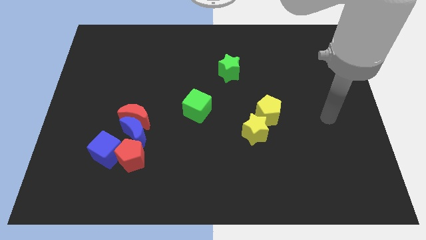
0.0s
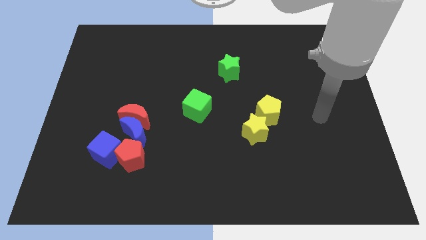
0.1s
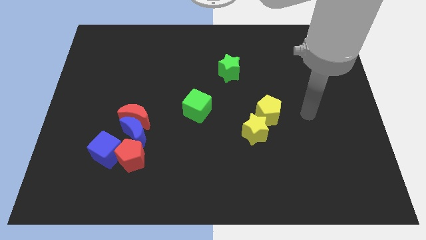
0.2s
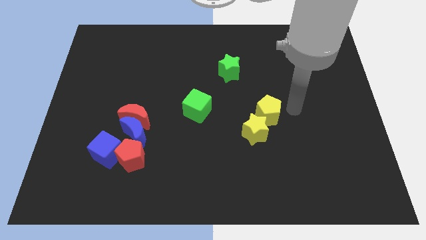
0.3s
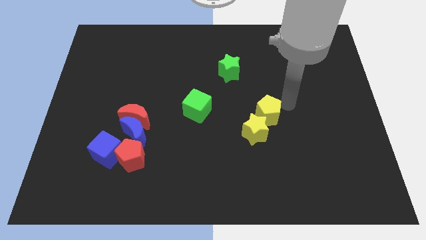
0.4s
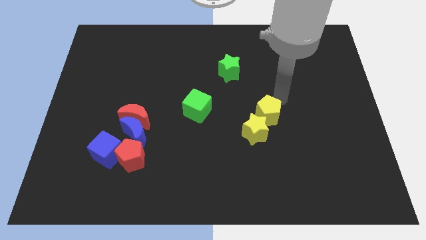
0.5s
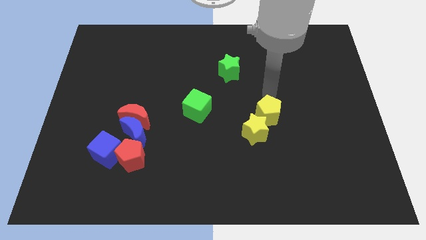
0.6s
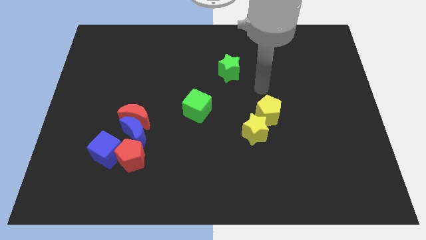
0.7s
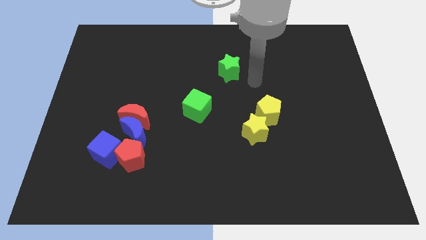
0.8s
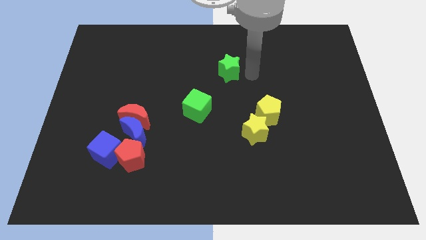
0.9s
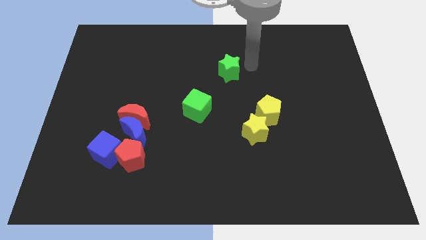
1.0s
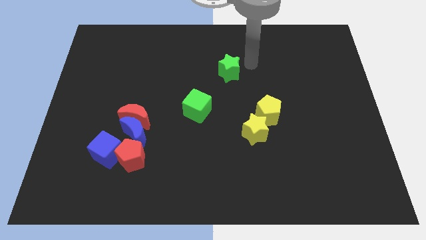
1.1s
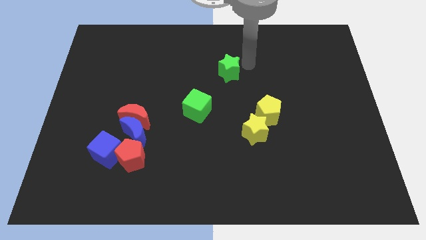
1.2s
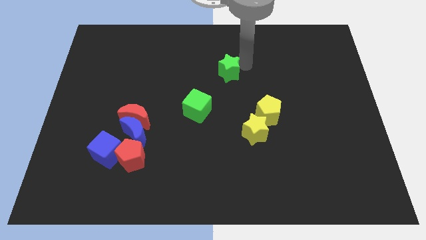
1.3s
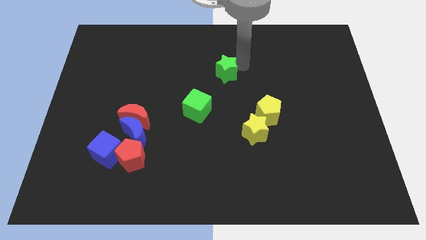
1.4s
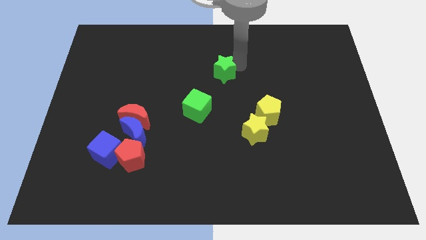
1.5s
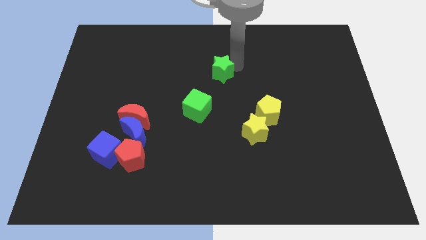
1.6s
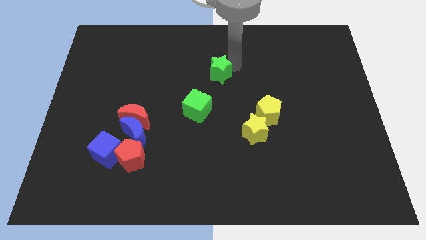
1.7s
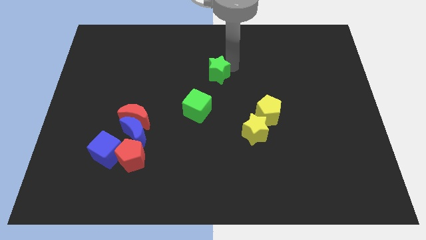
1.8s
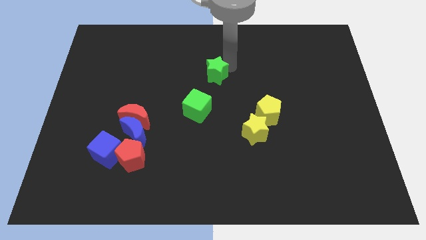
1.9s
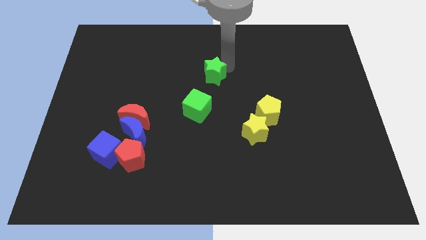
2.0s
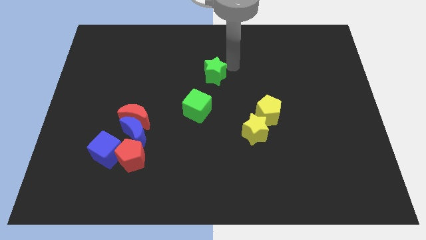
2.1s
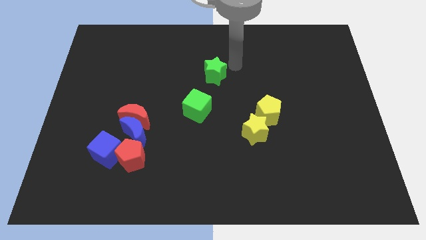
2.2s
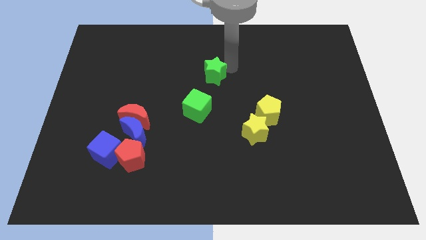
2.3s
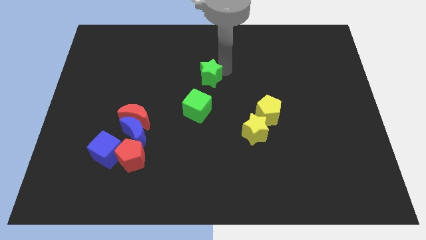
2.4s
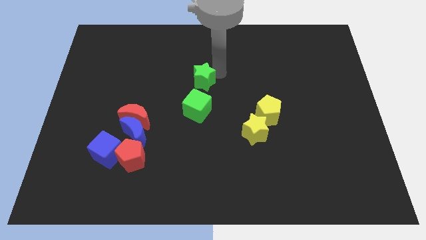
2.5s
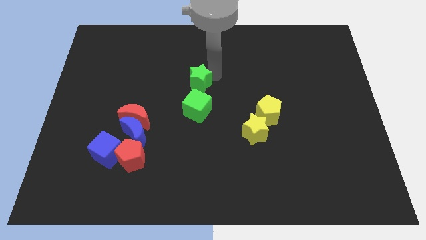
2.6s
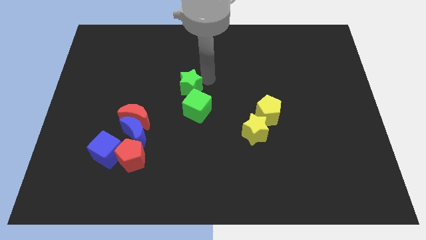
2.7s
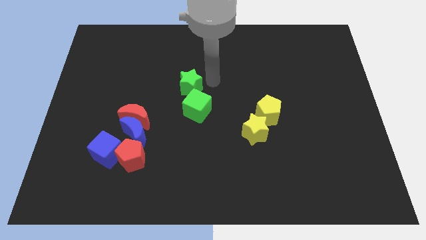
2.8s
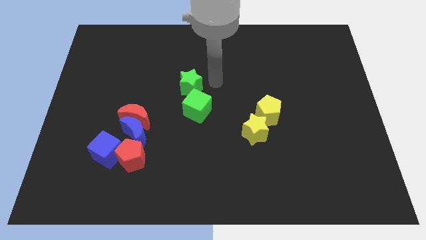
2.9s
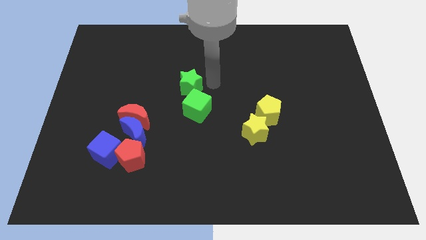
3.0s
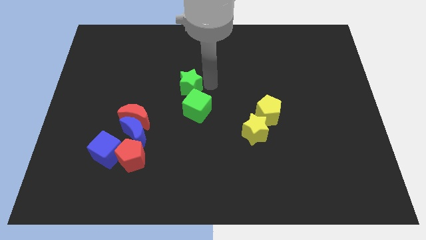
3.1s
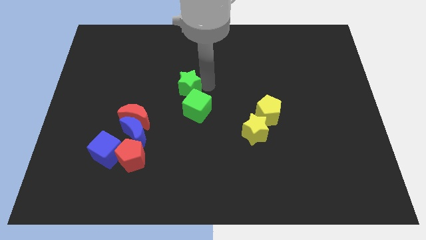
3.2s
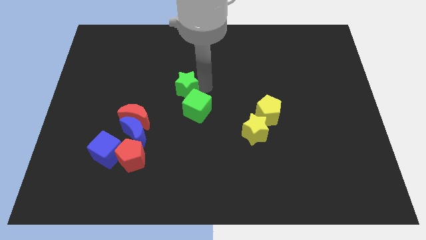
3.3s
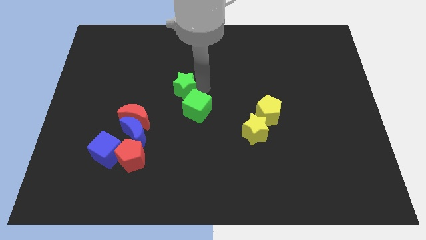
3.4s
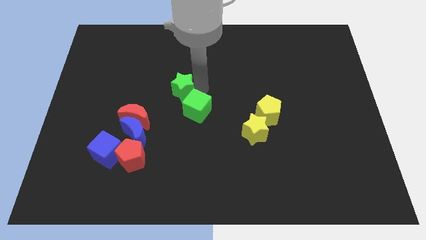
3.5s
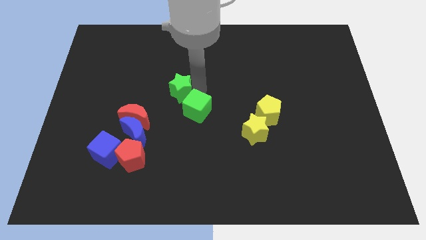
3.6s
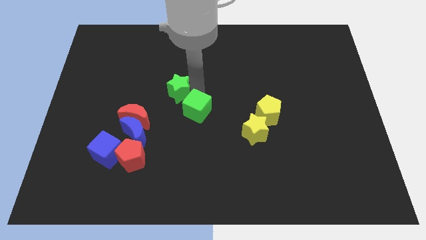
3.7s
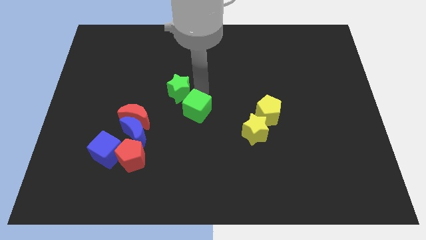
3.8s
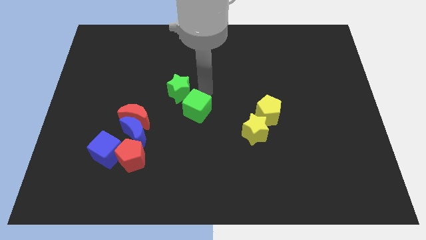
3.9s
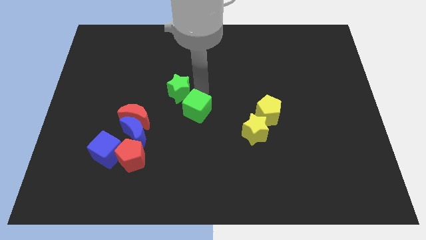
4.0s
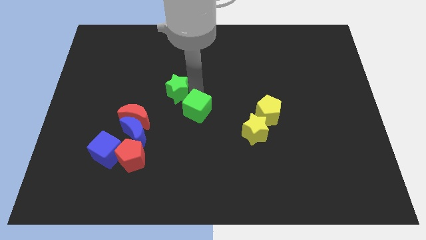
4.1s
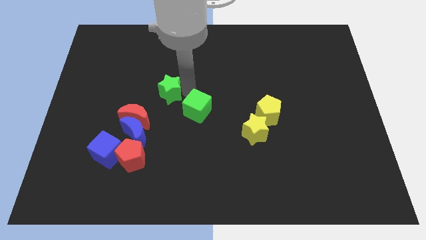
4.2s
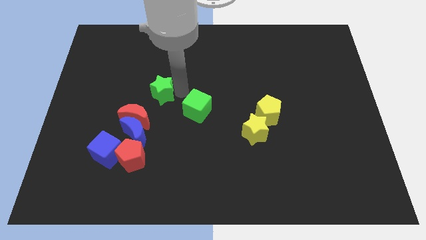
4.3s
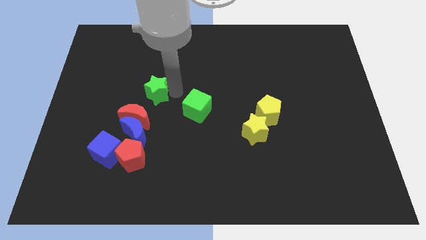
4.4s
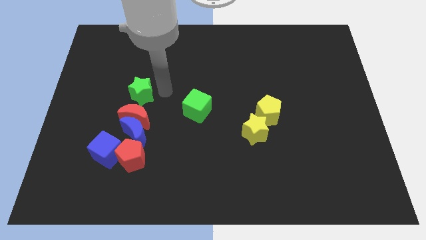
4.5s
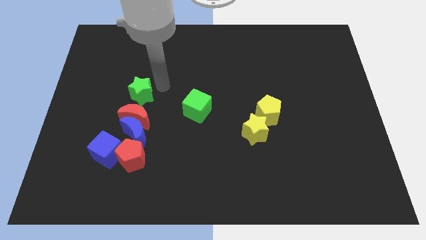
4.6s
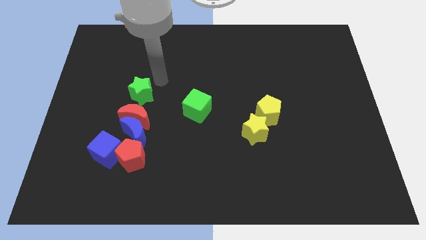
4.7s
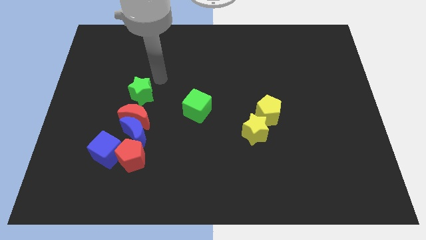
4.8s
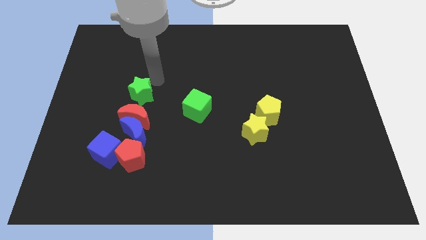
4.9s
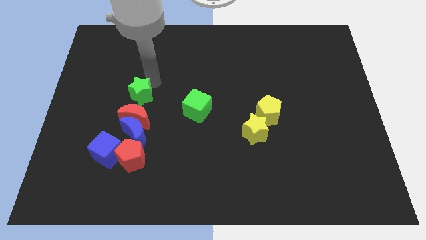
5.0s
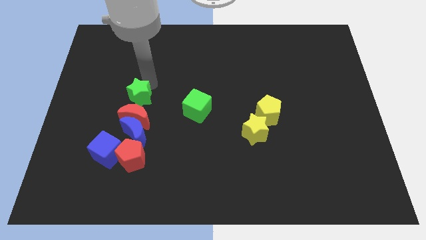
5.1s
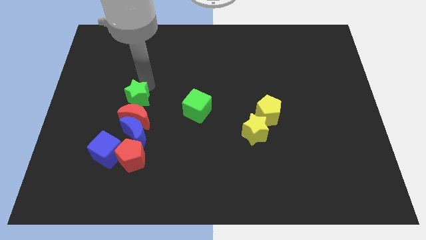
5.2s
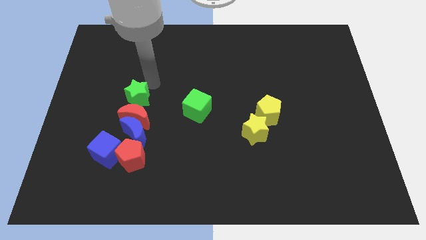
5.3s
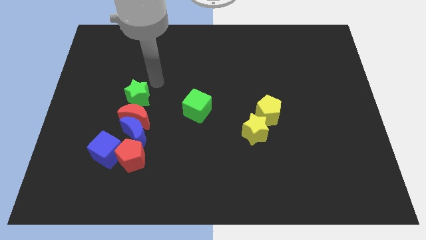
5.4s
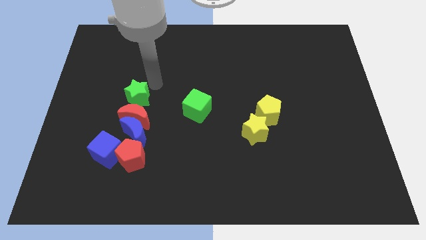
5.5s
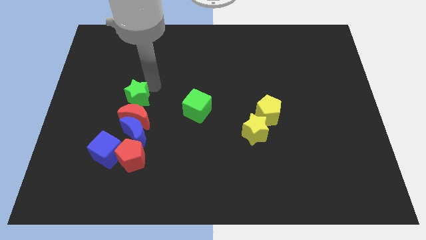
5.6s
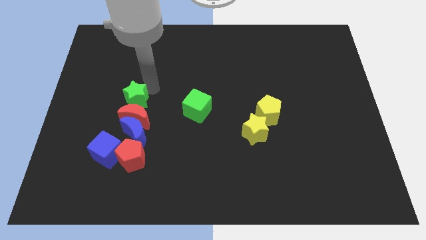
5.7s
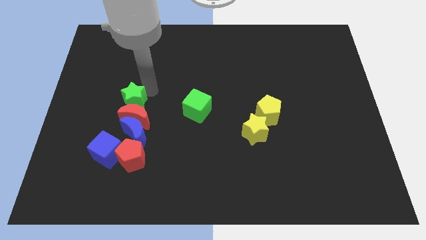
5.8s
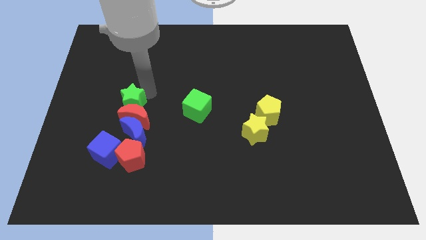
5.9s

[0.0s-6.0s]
push the green star to the top left of the blue moon
